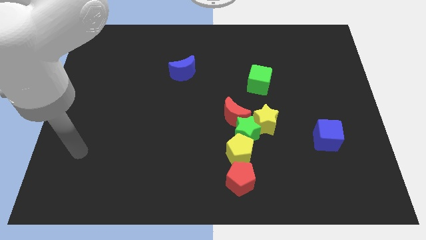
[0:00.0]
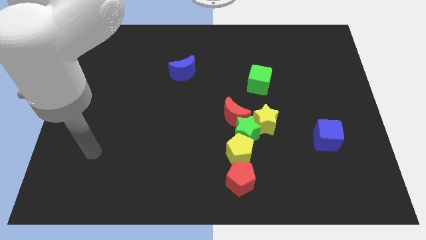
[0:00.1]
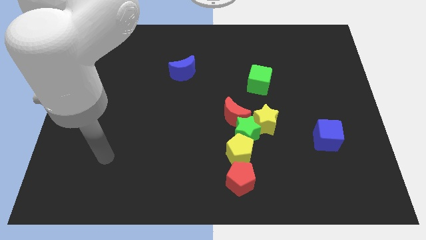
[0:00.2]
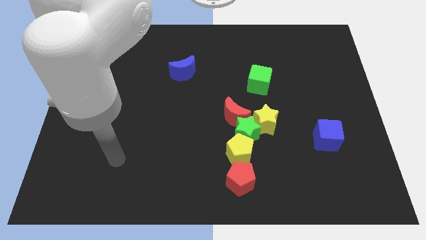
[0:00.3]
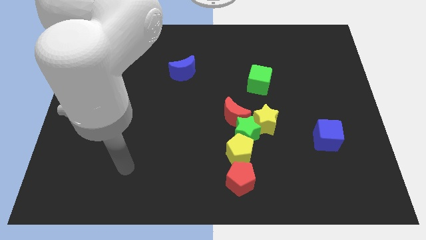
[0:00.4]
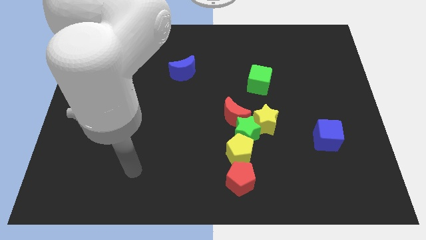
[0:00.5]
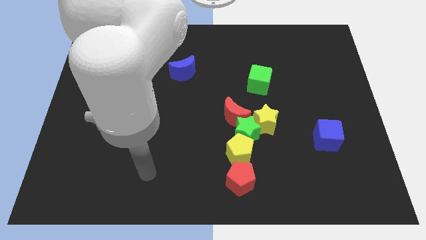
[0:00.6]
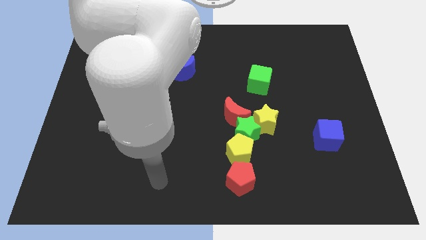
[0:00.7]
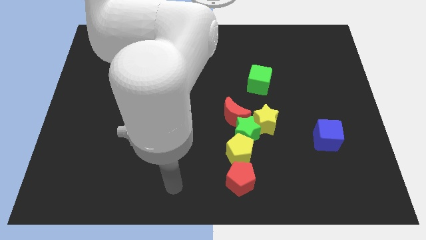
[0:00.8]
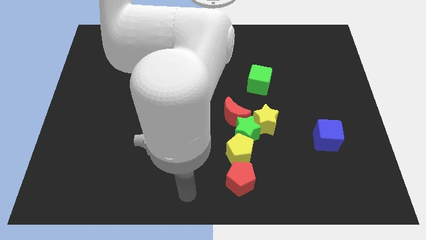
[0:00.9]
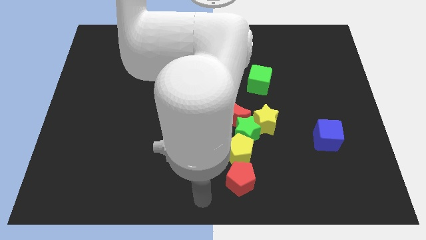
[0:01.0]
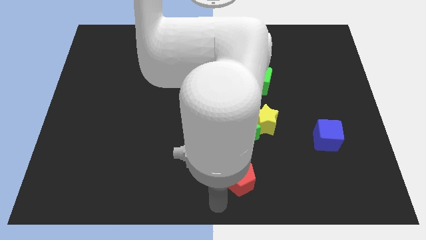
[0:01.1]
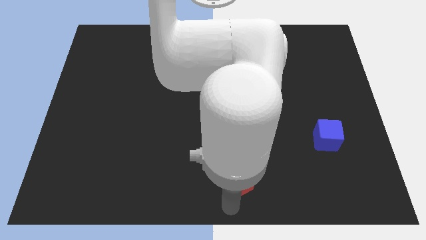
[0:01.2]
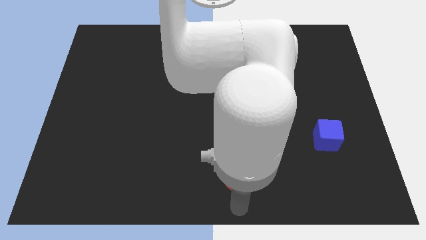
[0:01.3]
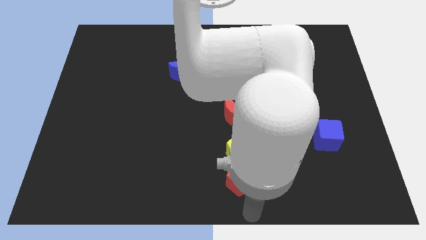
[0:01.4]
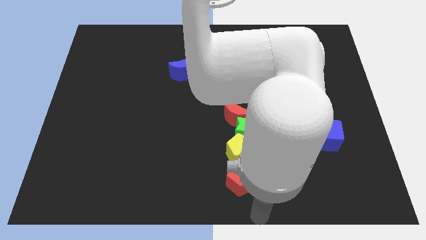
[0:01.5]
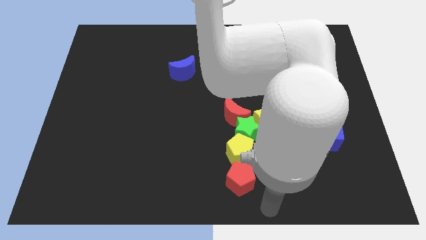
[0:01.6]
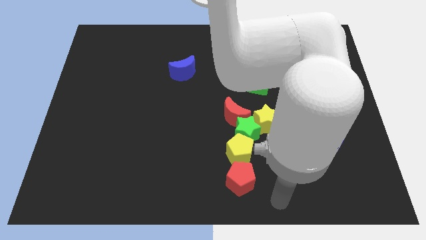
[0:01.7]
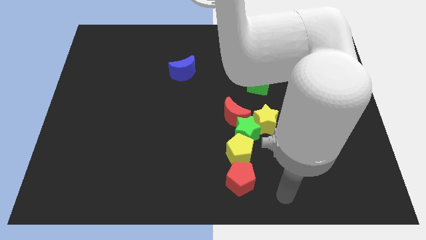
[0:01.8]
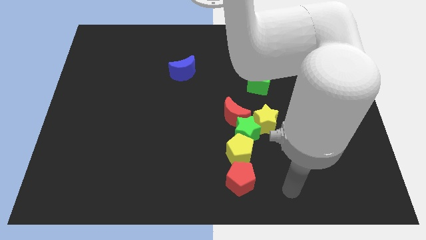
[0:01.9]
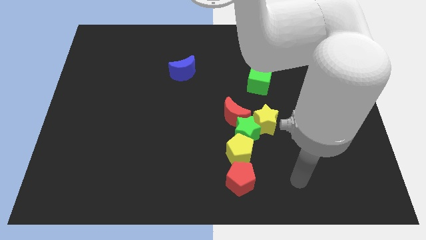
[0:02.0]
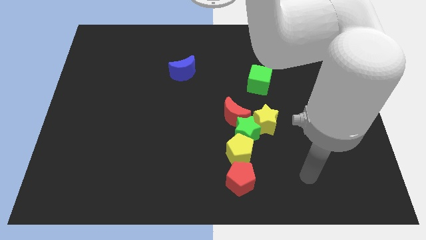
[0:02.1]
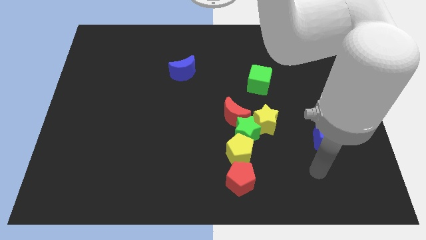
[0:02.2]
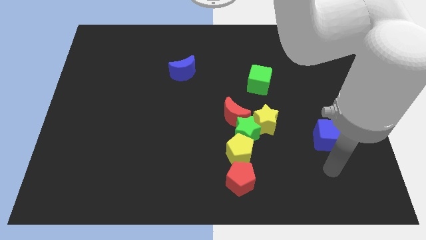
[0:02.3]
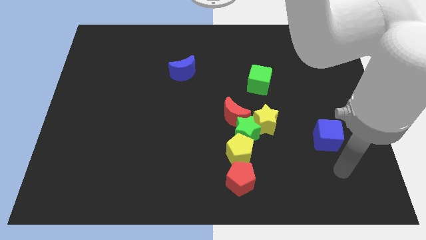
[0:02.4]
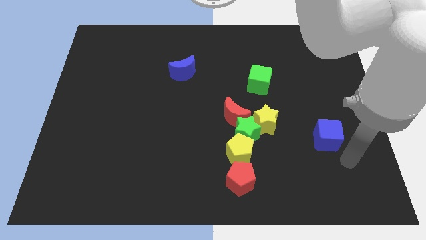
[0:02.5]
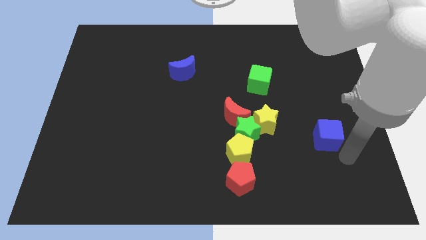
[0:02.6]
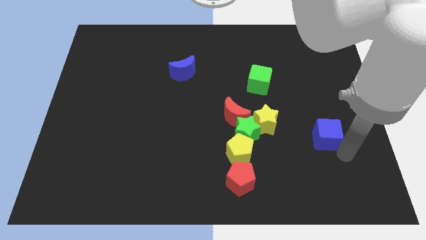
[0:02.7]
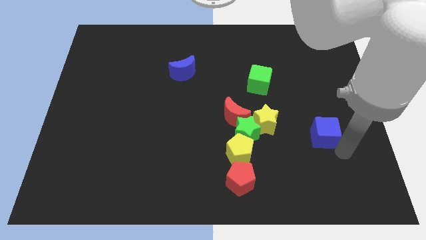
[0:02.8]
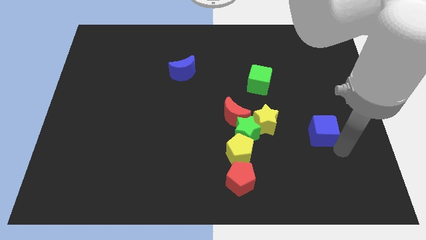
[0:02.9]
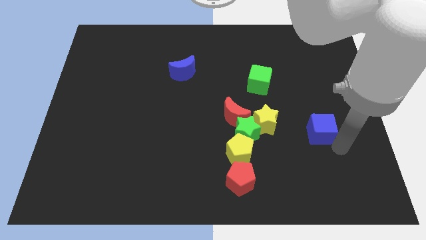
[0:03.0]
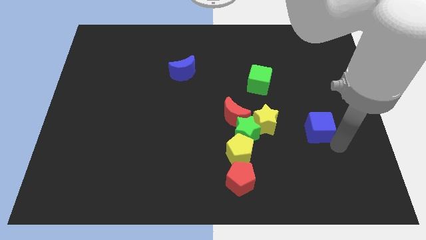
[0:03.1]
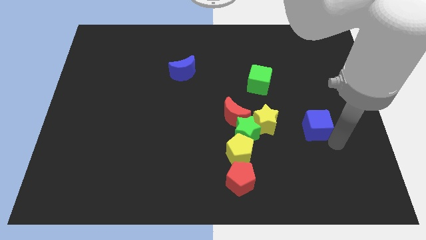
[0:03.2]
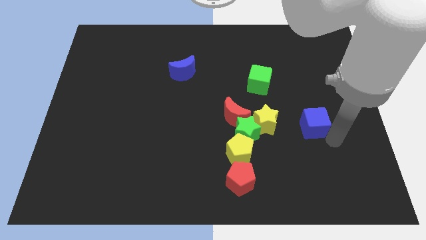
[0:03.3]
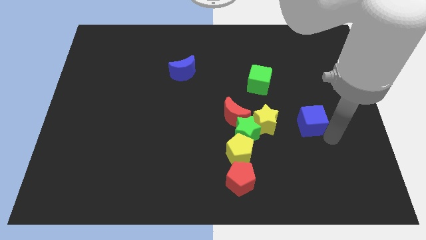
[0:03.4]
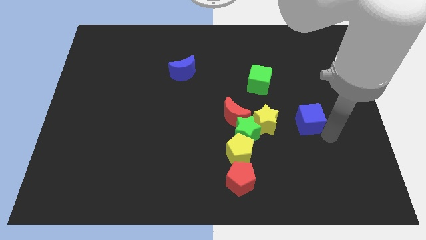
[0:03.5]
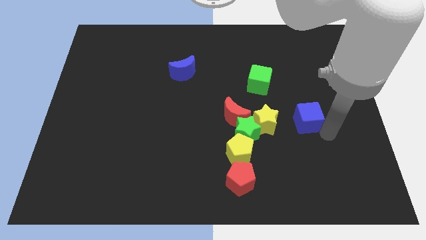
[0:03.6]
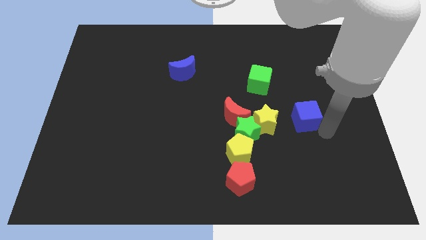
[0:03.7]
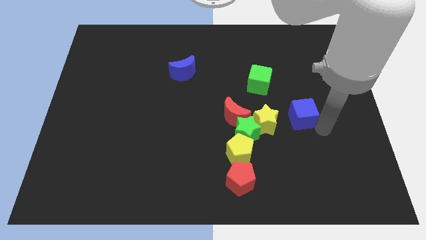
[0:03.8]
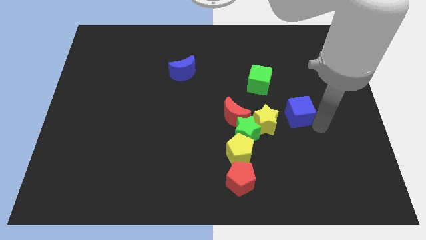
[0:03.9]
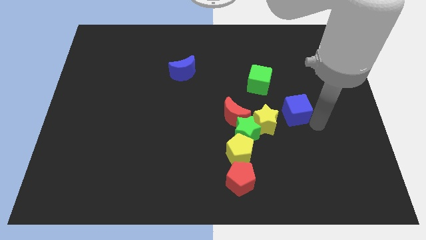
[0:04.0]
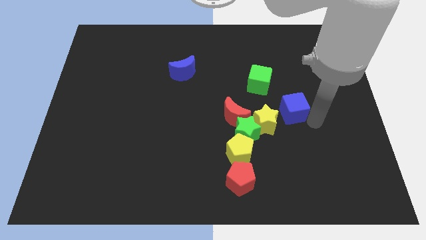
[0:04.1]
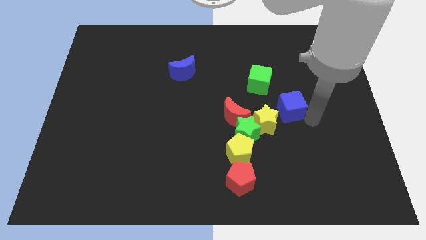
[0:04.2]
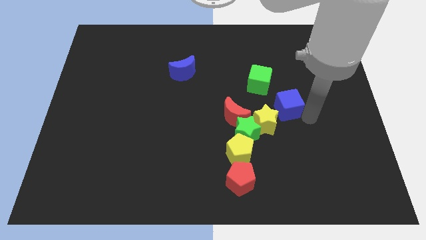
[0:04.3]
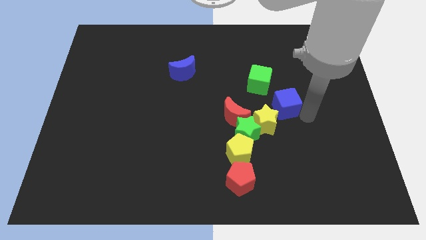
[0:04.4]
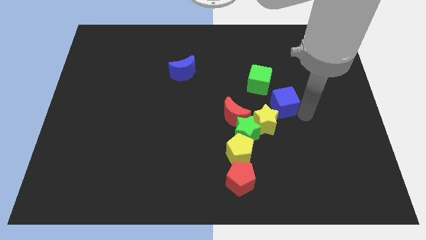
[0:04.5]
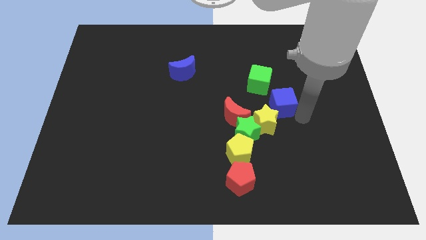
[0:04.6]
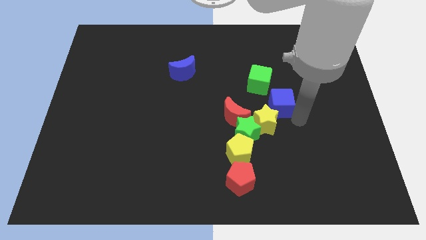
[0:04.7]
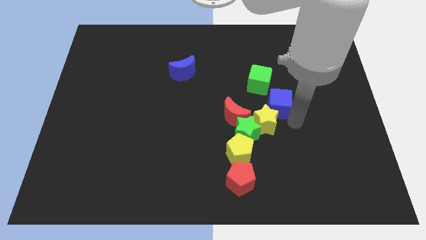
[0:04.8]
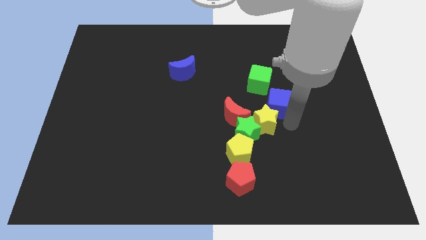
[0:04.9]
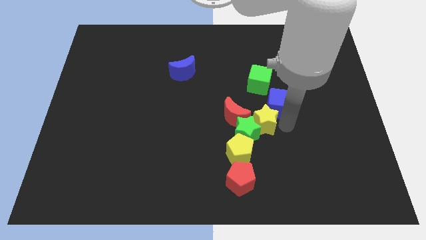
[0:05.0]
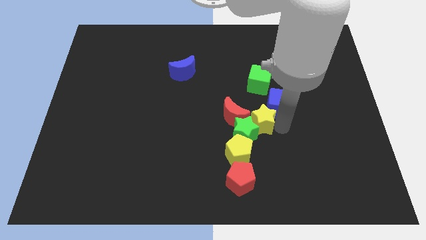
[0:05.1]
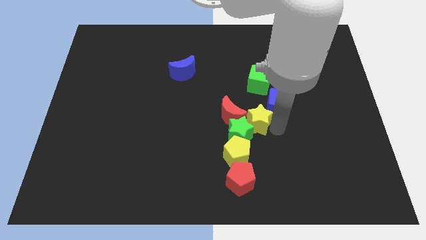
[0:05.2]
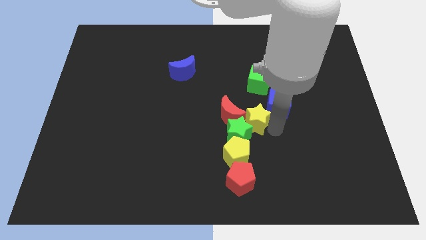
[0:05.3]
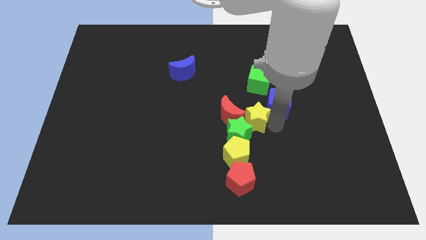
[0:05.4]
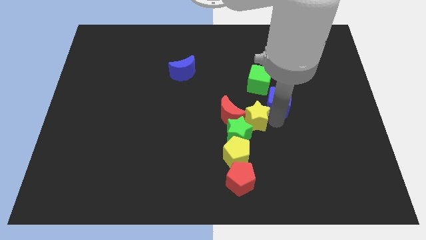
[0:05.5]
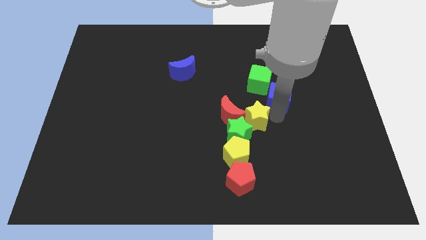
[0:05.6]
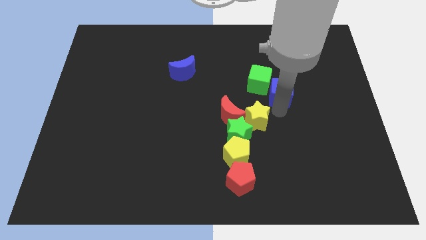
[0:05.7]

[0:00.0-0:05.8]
push the blue cube next to the green cube

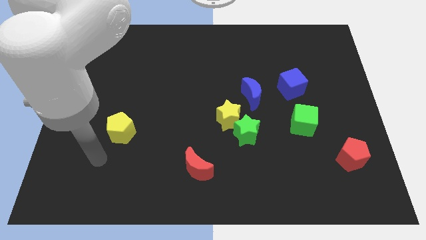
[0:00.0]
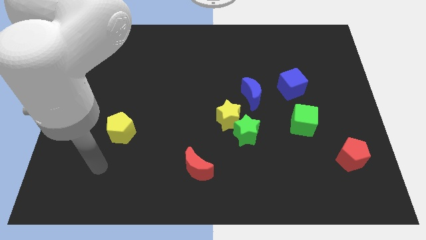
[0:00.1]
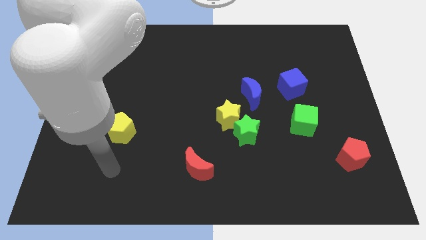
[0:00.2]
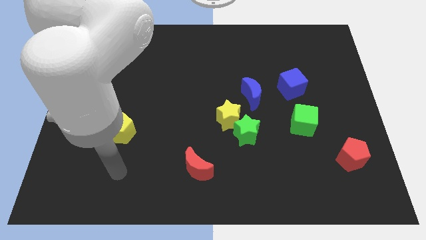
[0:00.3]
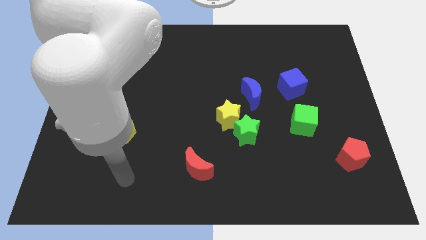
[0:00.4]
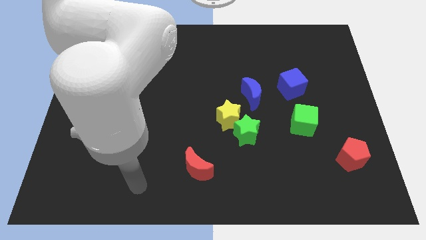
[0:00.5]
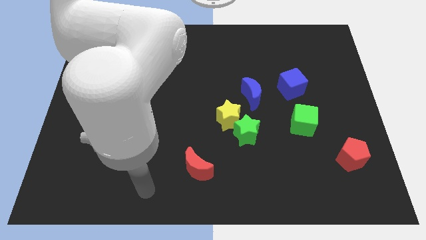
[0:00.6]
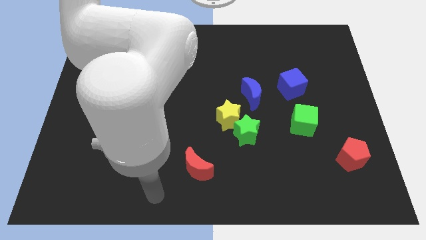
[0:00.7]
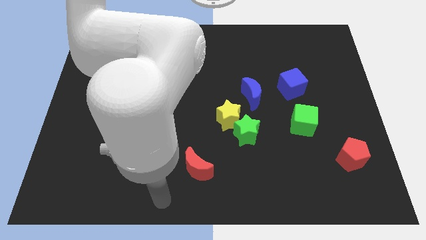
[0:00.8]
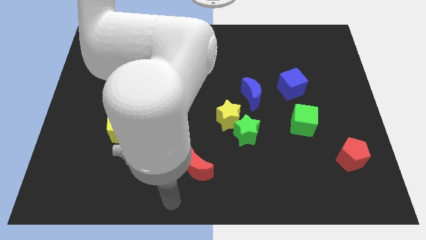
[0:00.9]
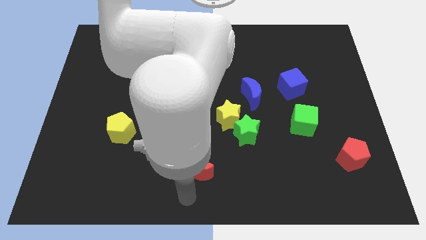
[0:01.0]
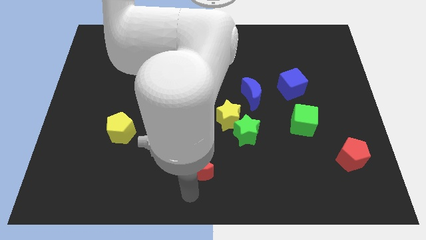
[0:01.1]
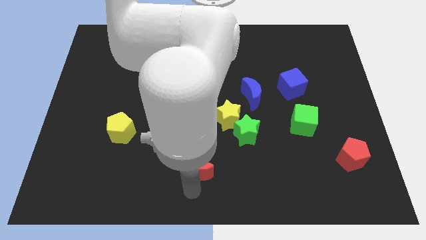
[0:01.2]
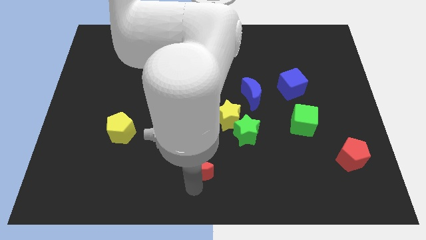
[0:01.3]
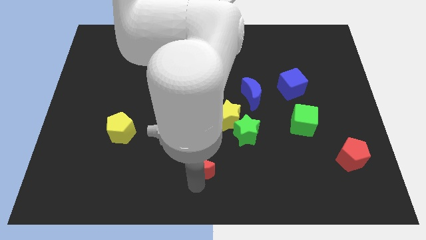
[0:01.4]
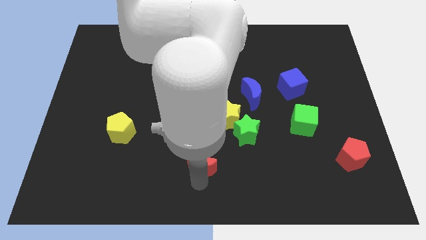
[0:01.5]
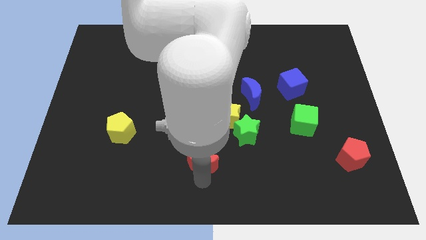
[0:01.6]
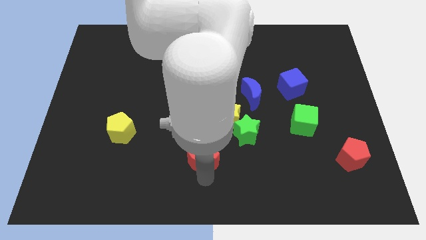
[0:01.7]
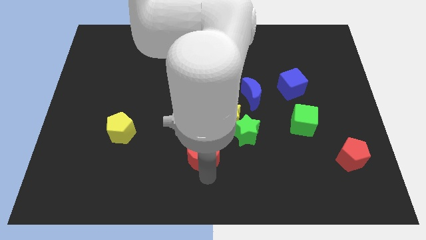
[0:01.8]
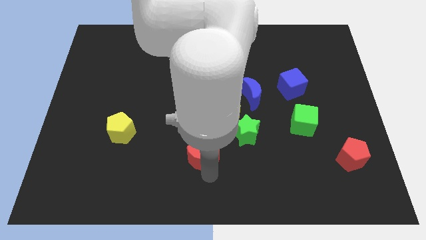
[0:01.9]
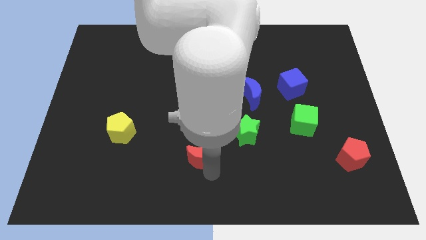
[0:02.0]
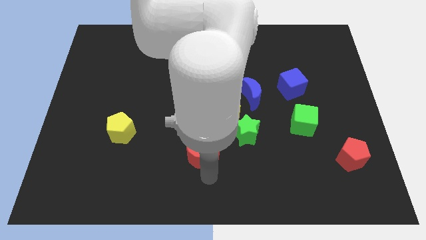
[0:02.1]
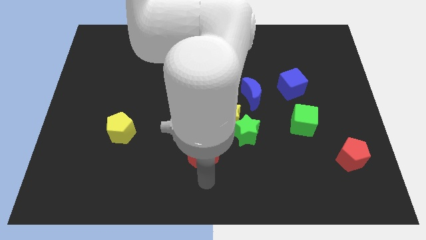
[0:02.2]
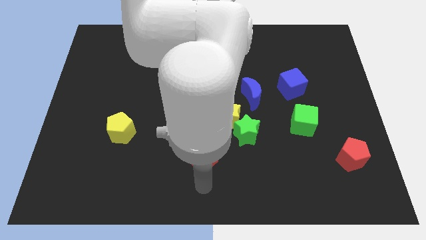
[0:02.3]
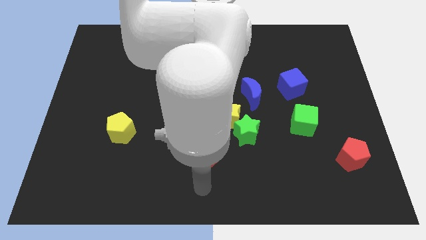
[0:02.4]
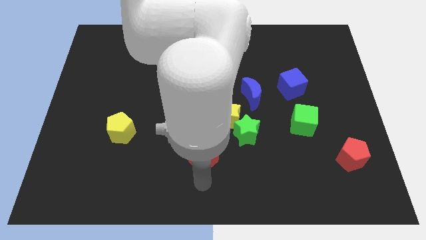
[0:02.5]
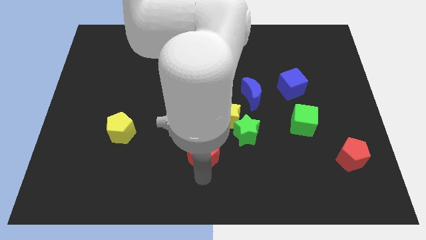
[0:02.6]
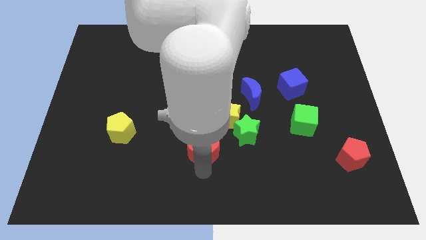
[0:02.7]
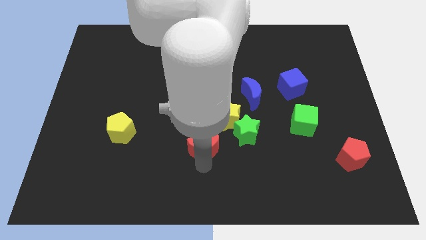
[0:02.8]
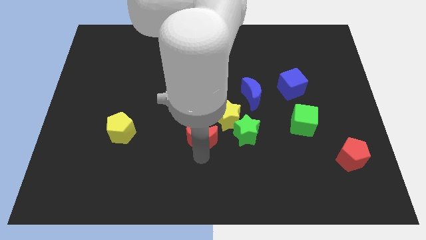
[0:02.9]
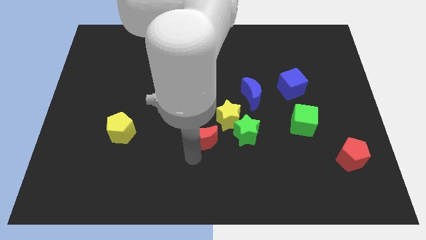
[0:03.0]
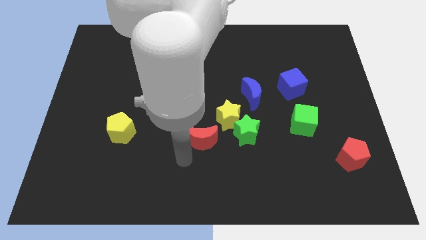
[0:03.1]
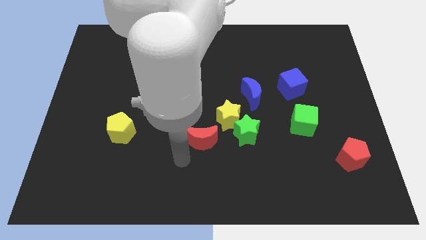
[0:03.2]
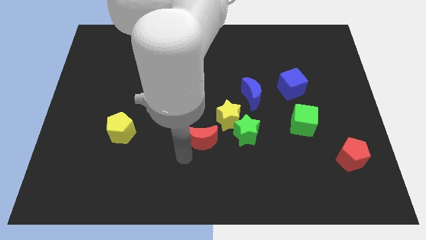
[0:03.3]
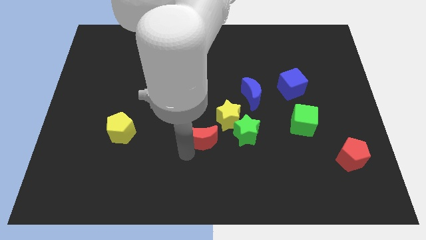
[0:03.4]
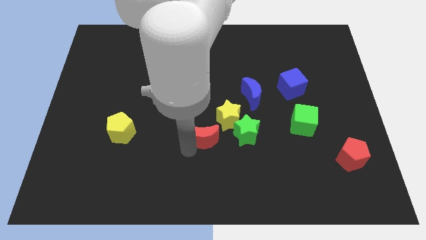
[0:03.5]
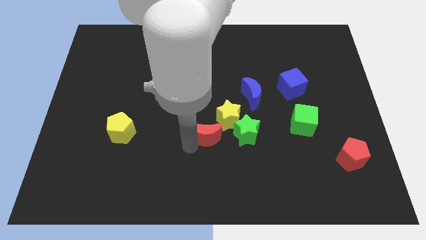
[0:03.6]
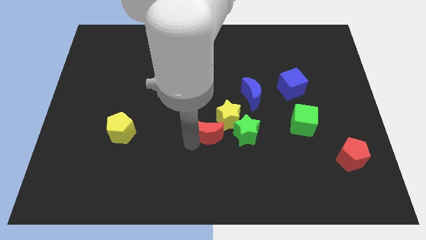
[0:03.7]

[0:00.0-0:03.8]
push the red moon close to the yellow star
